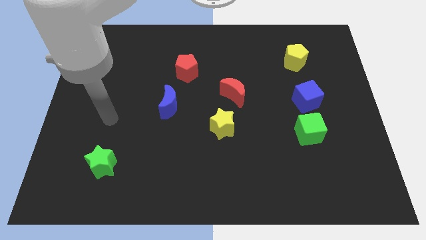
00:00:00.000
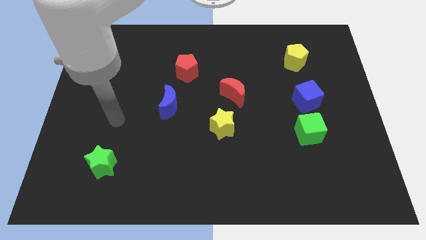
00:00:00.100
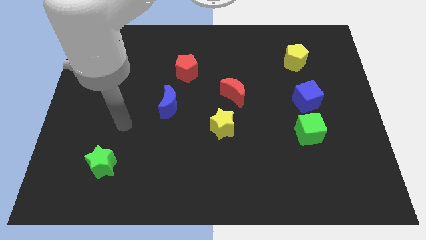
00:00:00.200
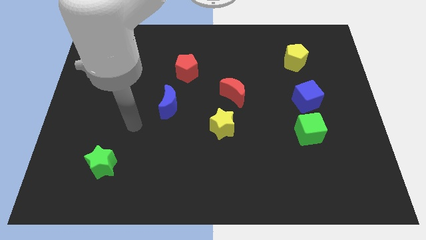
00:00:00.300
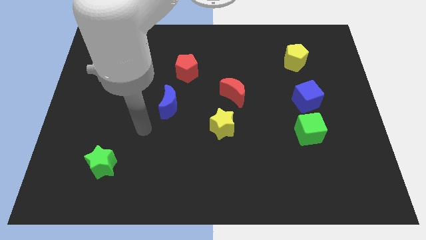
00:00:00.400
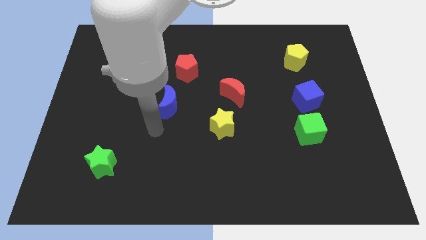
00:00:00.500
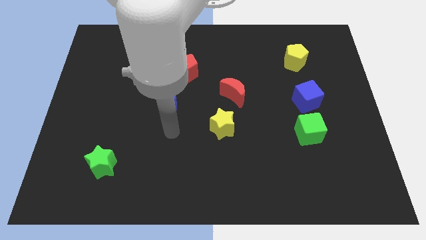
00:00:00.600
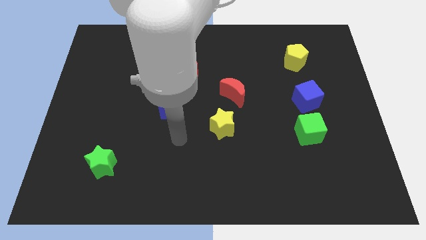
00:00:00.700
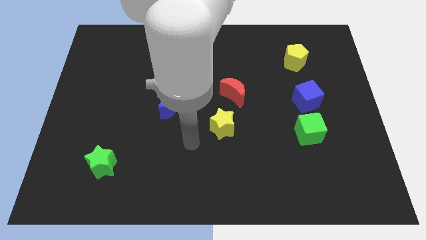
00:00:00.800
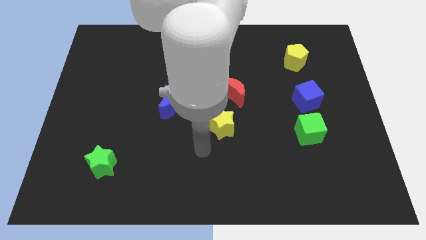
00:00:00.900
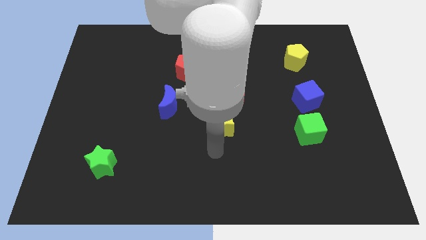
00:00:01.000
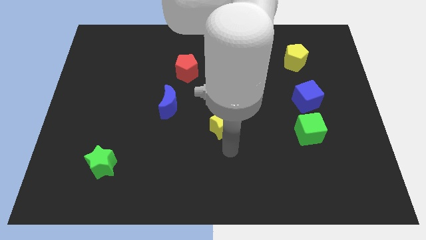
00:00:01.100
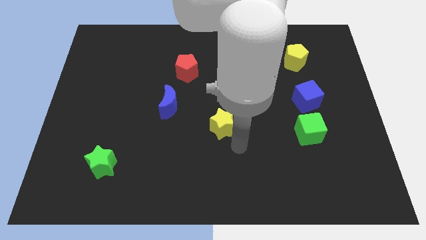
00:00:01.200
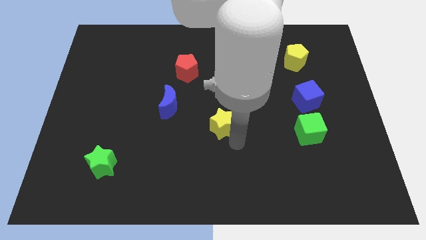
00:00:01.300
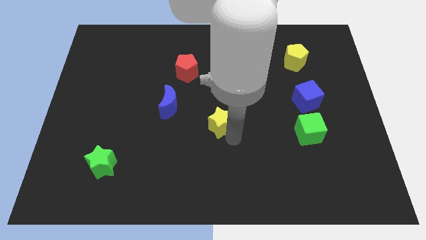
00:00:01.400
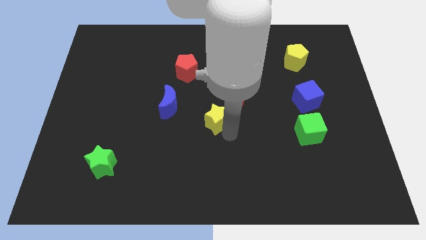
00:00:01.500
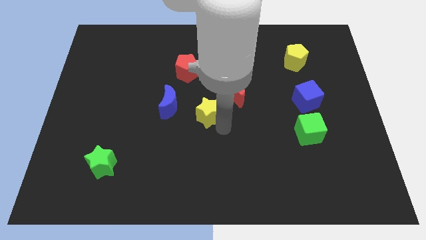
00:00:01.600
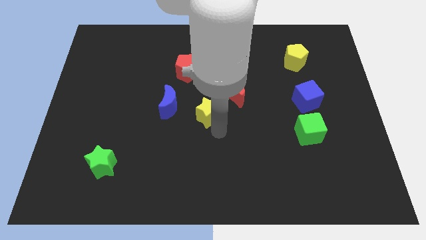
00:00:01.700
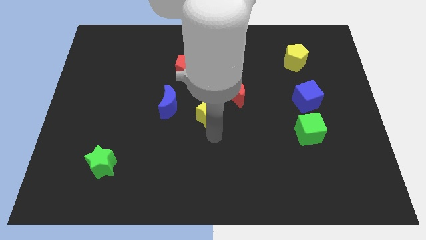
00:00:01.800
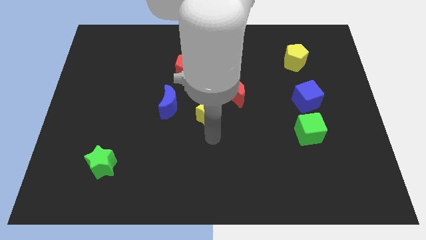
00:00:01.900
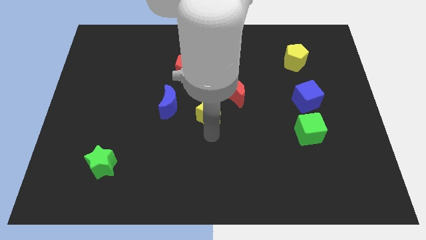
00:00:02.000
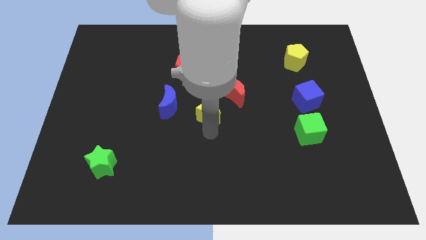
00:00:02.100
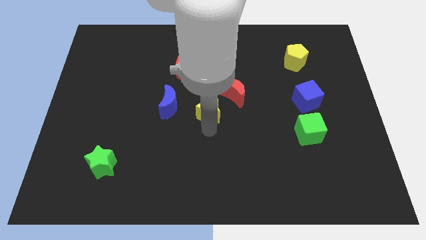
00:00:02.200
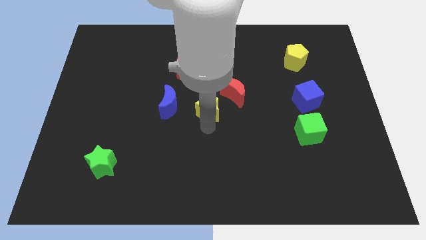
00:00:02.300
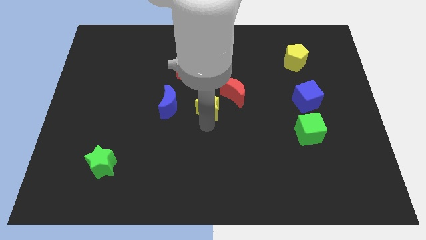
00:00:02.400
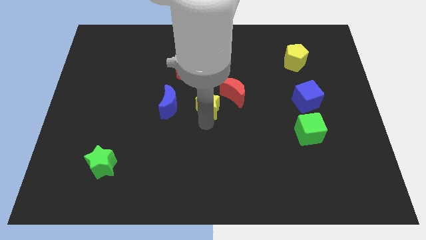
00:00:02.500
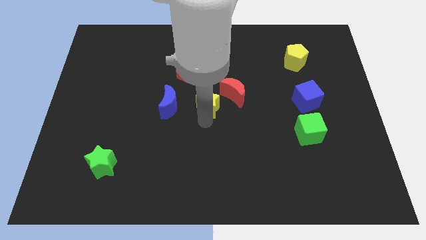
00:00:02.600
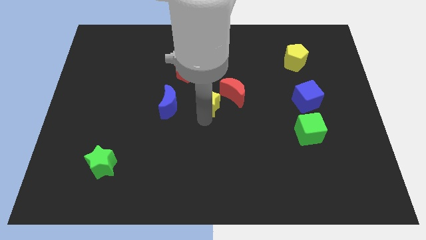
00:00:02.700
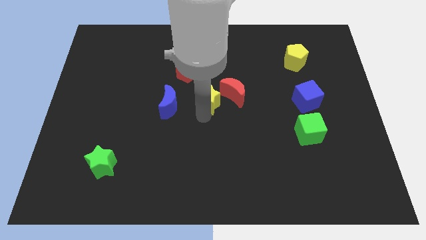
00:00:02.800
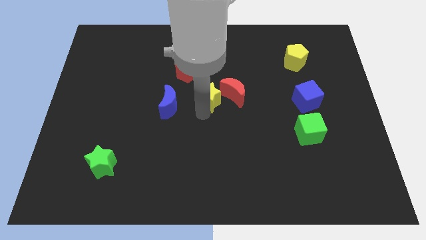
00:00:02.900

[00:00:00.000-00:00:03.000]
slide the yellow star a bit upwards

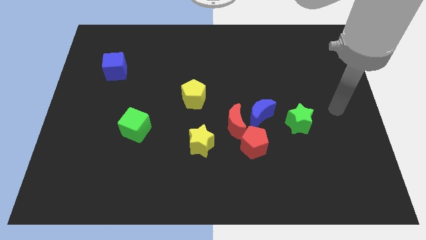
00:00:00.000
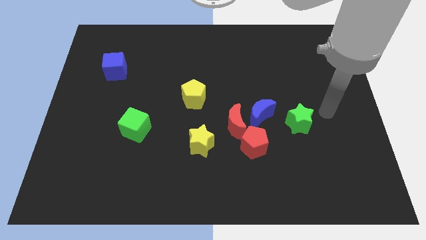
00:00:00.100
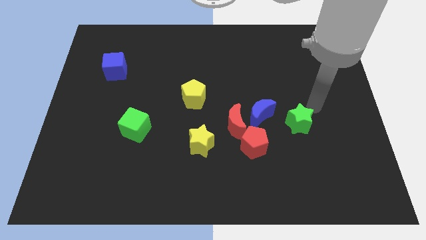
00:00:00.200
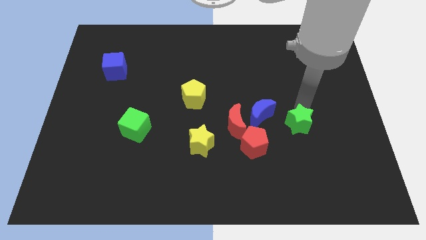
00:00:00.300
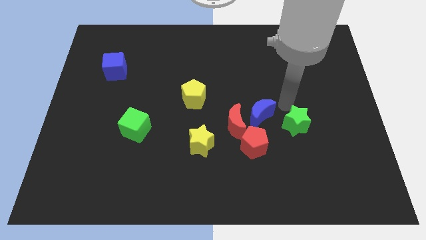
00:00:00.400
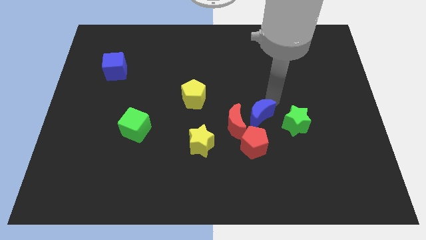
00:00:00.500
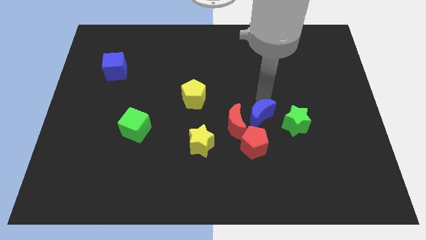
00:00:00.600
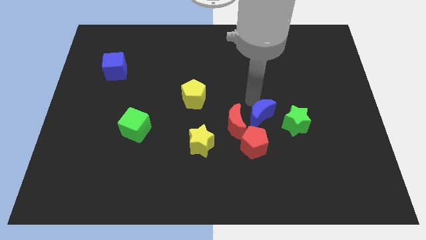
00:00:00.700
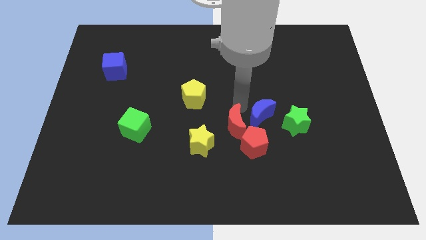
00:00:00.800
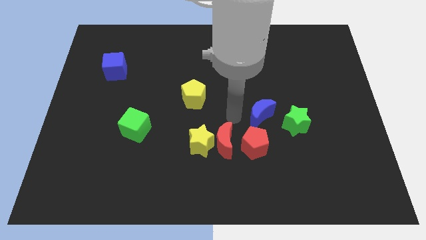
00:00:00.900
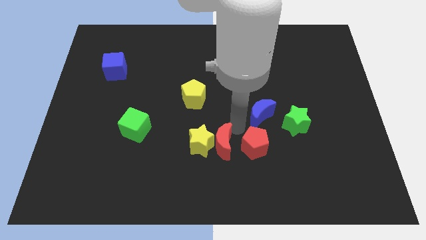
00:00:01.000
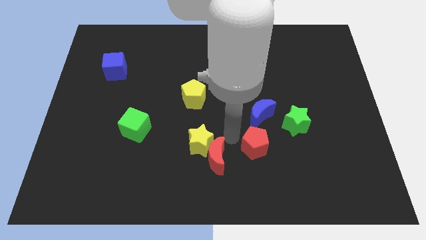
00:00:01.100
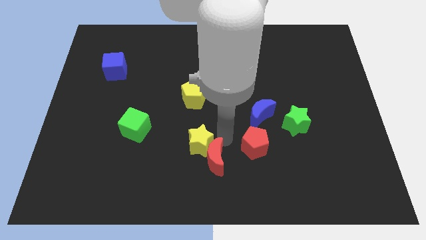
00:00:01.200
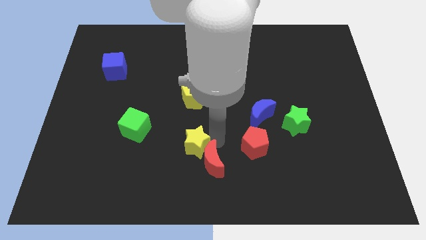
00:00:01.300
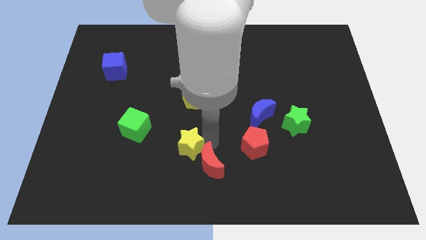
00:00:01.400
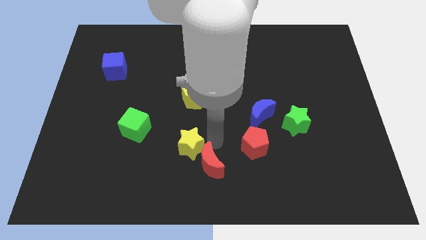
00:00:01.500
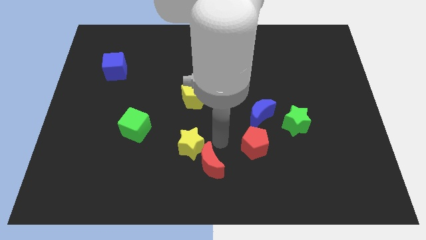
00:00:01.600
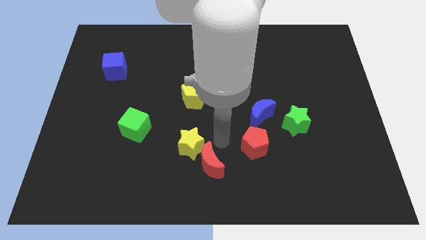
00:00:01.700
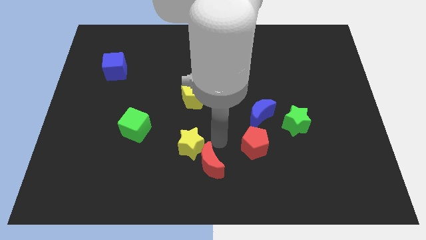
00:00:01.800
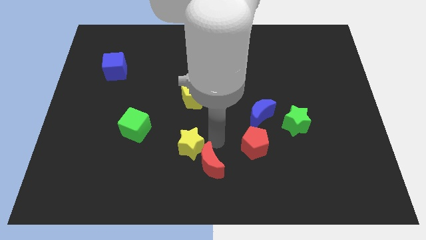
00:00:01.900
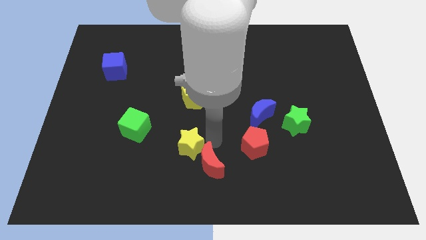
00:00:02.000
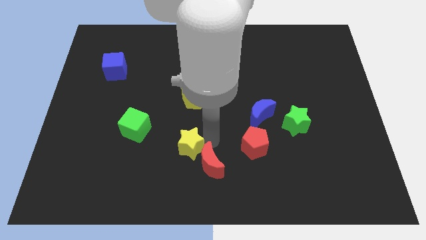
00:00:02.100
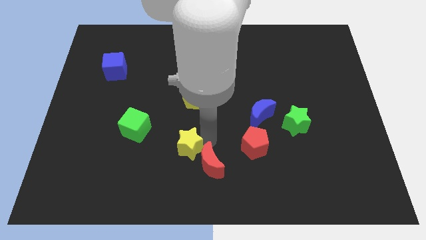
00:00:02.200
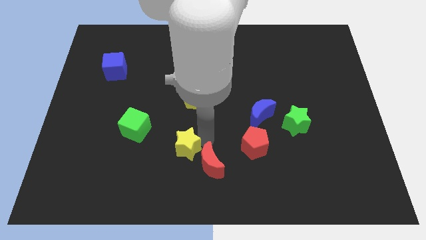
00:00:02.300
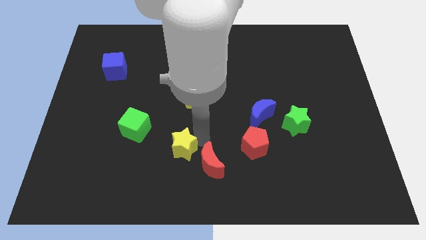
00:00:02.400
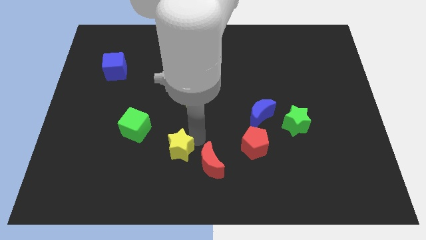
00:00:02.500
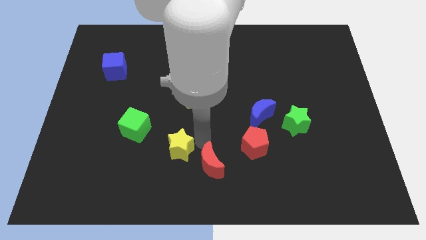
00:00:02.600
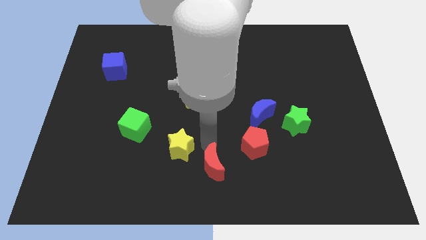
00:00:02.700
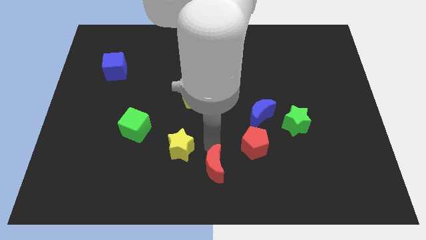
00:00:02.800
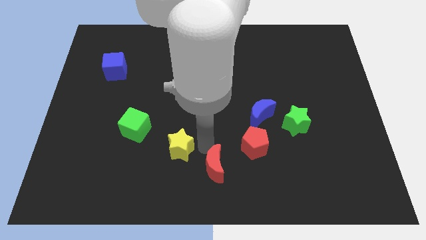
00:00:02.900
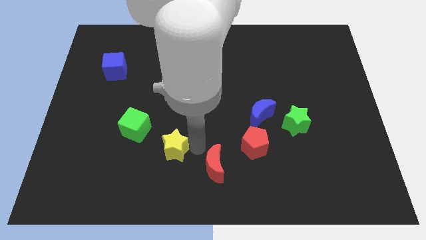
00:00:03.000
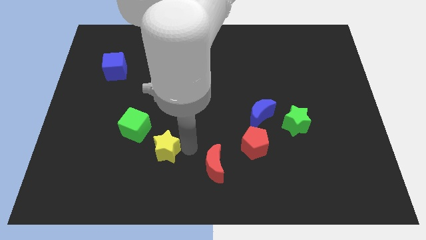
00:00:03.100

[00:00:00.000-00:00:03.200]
move the yellow star slightly left

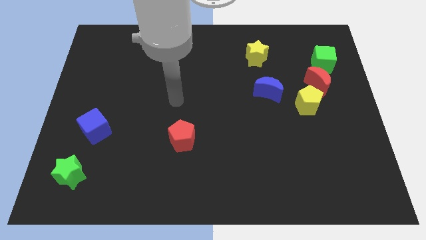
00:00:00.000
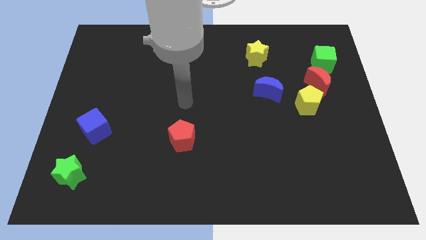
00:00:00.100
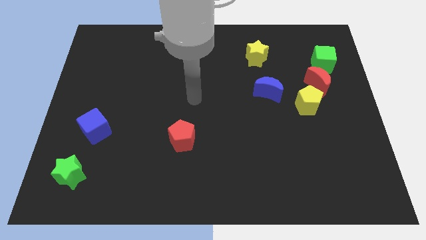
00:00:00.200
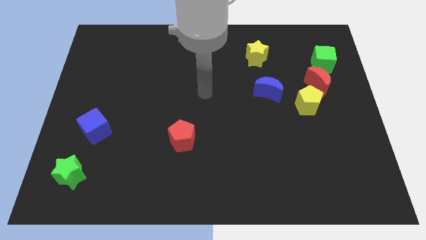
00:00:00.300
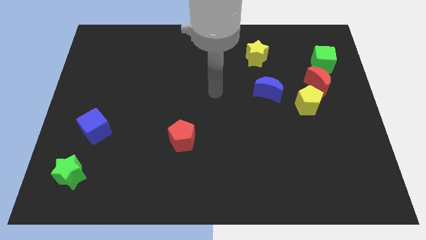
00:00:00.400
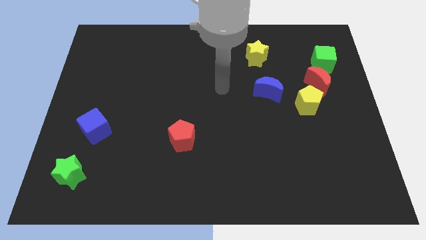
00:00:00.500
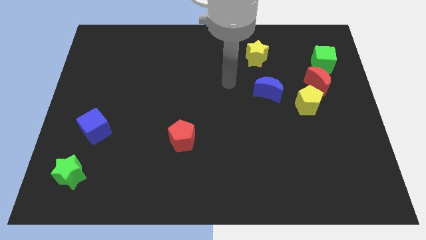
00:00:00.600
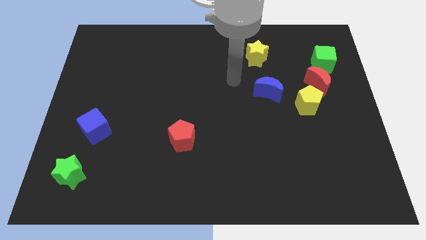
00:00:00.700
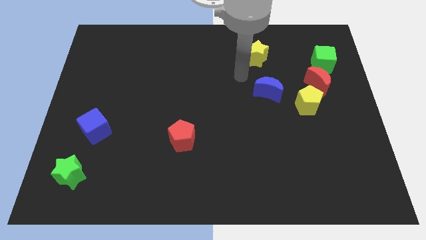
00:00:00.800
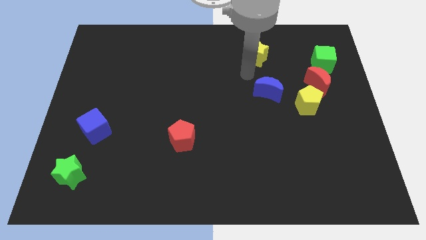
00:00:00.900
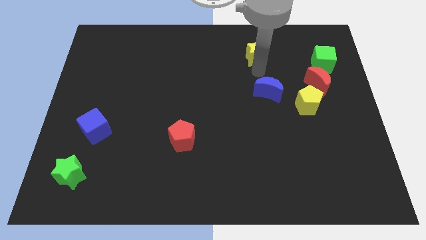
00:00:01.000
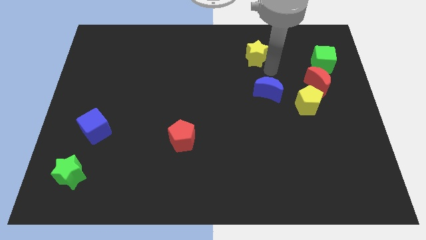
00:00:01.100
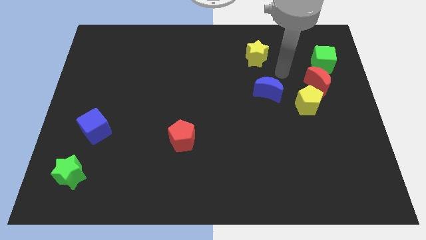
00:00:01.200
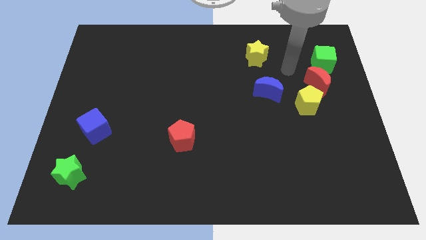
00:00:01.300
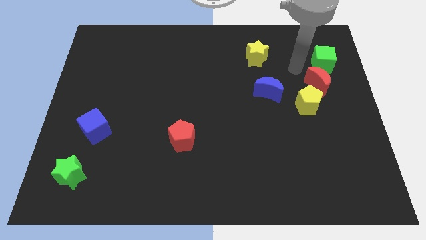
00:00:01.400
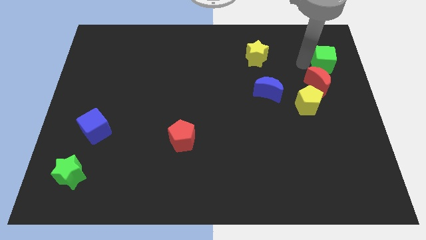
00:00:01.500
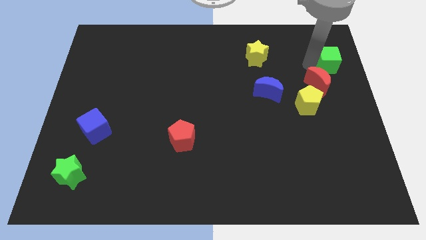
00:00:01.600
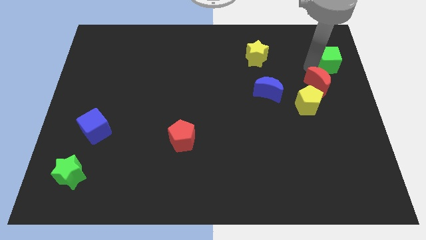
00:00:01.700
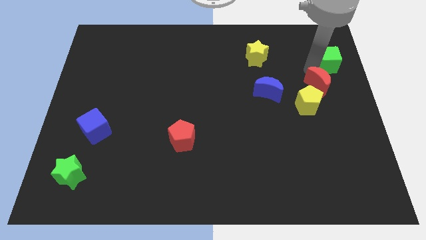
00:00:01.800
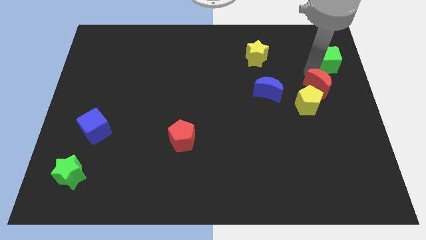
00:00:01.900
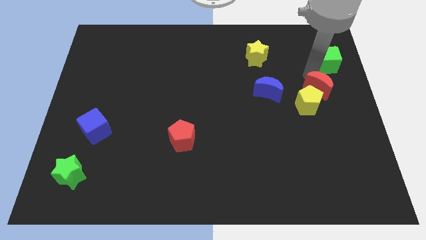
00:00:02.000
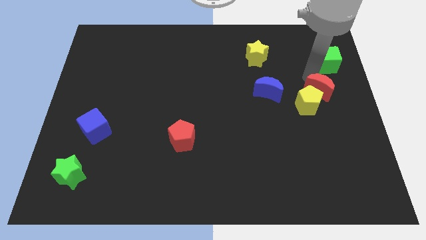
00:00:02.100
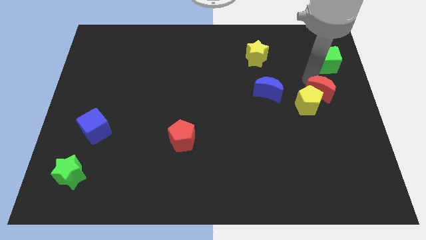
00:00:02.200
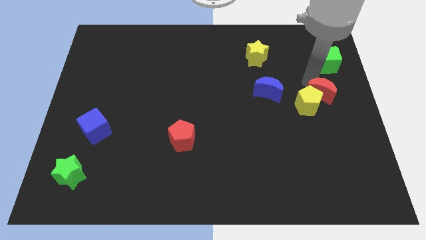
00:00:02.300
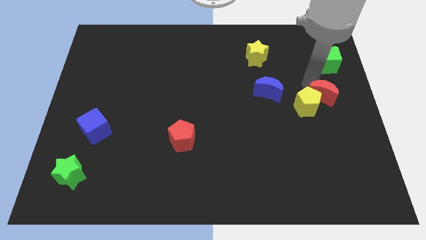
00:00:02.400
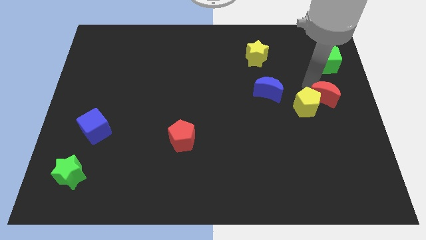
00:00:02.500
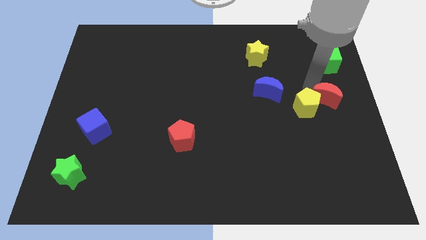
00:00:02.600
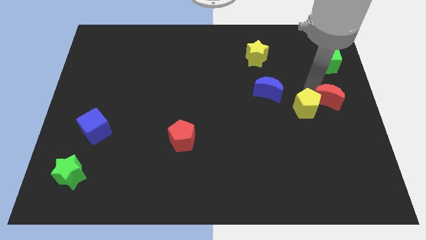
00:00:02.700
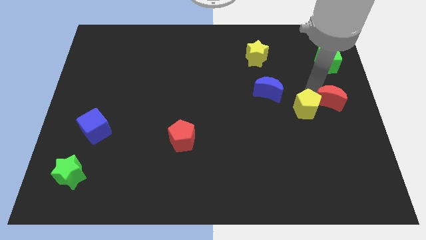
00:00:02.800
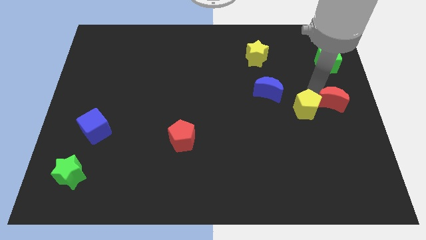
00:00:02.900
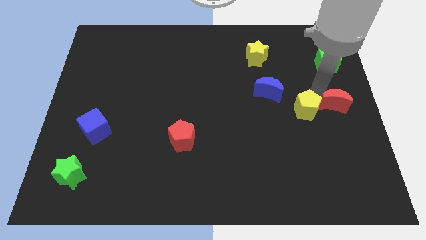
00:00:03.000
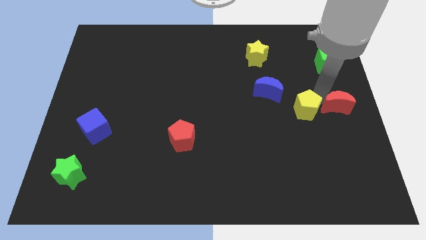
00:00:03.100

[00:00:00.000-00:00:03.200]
slightly slide the red moon downwards
